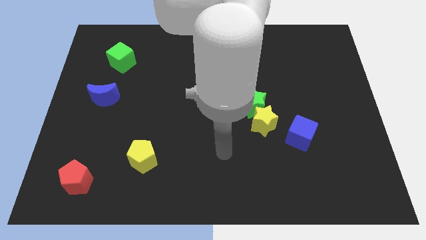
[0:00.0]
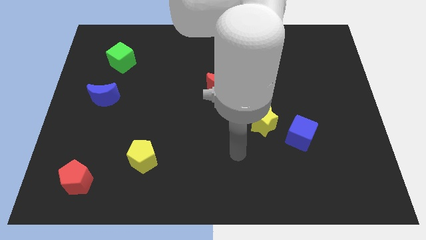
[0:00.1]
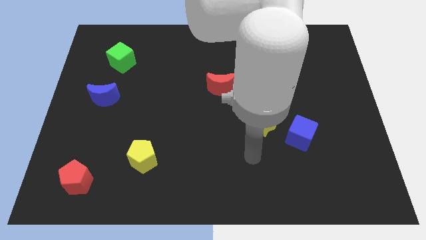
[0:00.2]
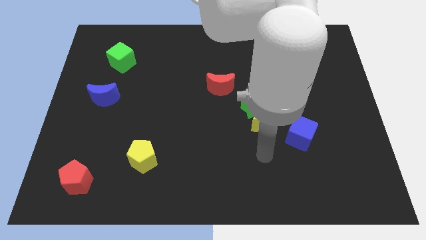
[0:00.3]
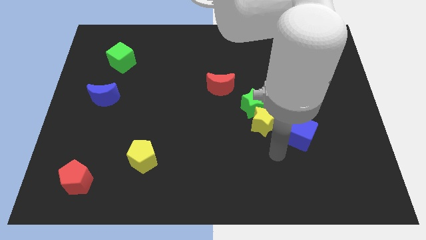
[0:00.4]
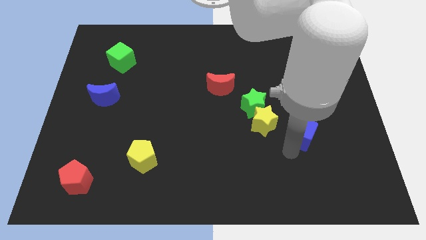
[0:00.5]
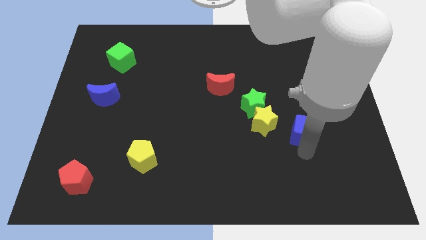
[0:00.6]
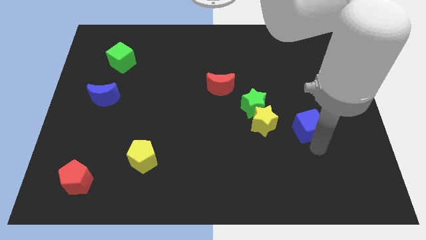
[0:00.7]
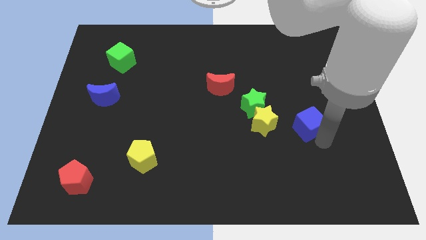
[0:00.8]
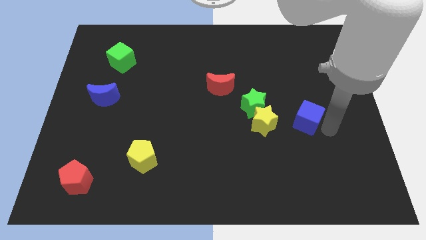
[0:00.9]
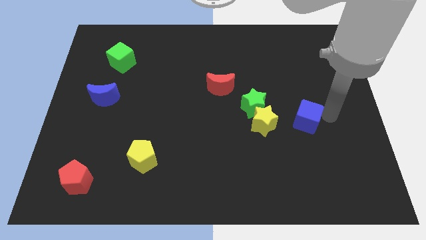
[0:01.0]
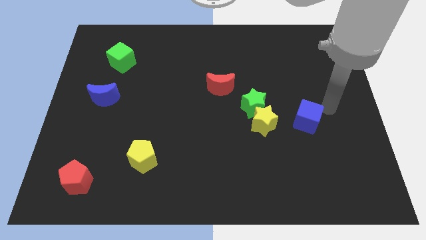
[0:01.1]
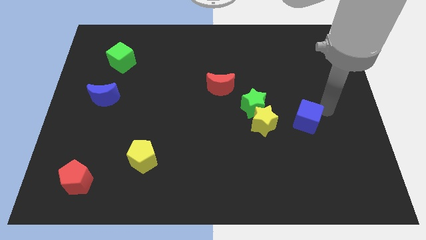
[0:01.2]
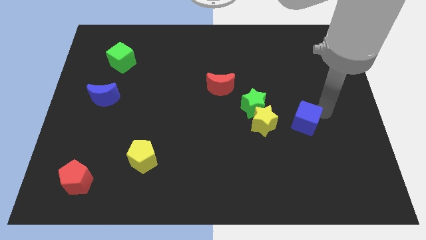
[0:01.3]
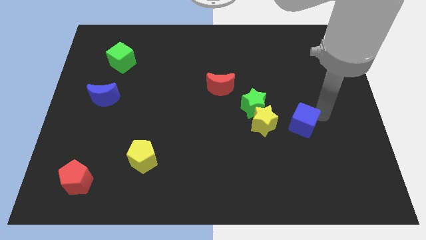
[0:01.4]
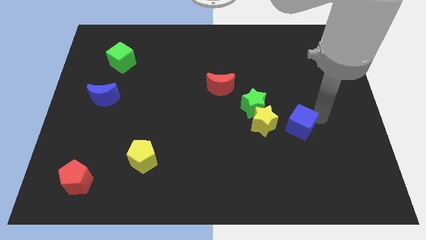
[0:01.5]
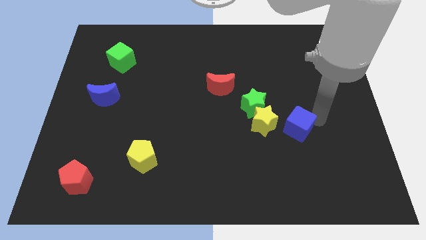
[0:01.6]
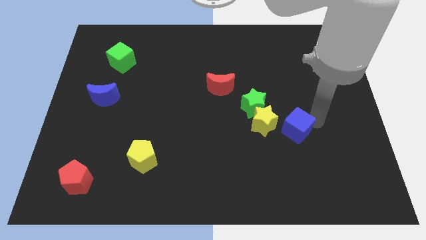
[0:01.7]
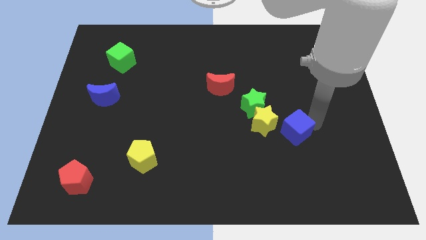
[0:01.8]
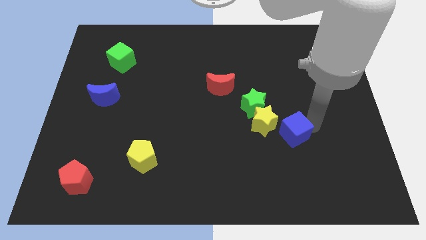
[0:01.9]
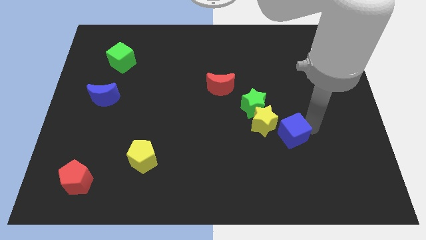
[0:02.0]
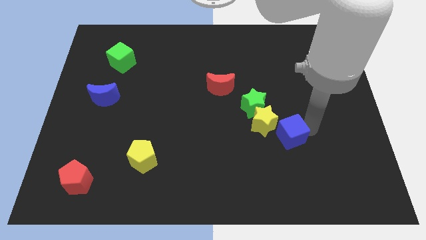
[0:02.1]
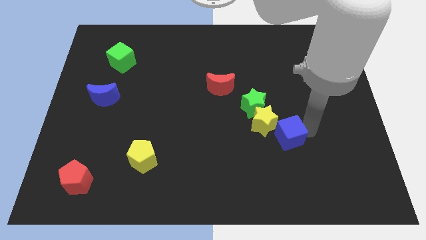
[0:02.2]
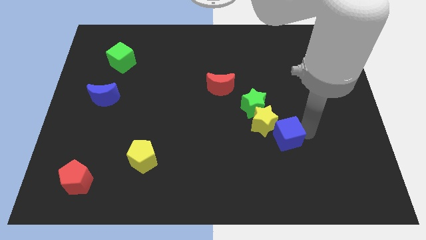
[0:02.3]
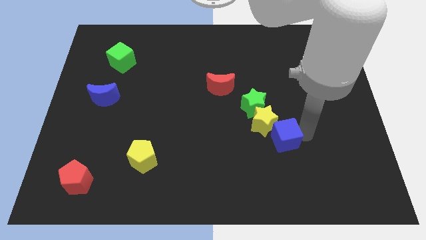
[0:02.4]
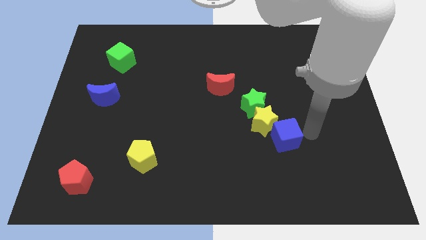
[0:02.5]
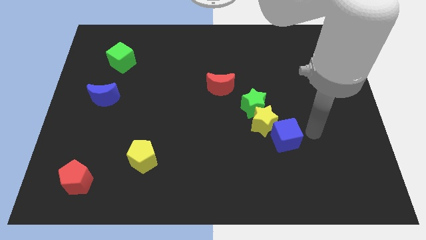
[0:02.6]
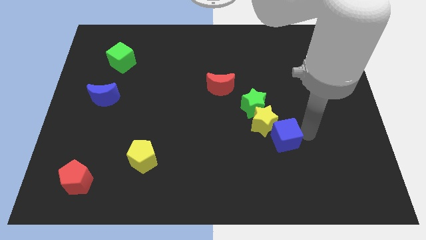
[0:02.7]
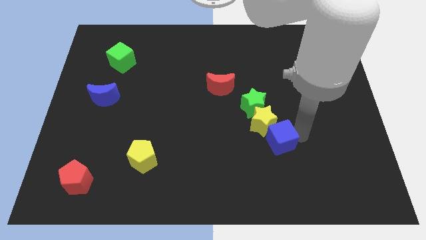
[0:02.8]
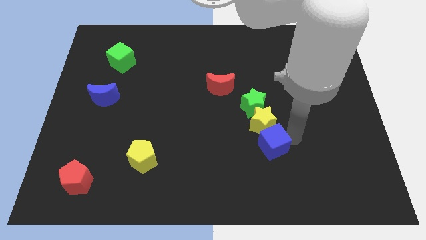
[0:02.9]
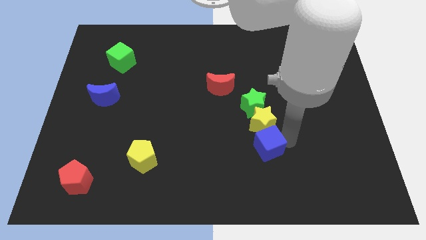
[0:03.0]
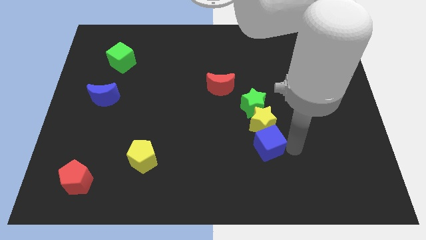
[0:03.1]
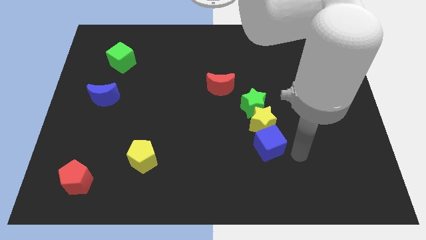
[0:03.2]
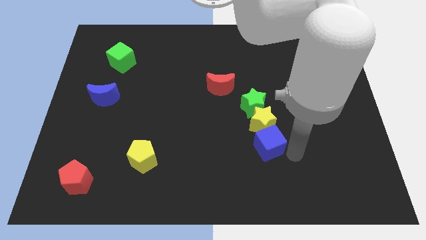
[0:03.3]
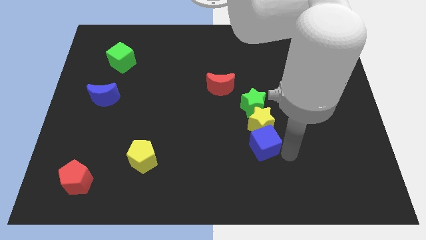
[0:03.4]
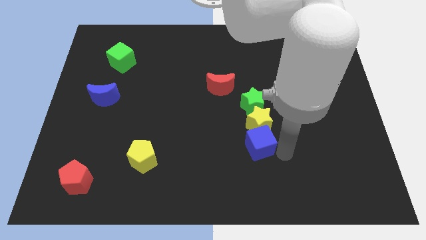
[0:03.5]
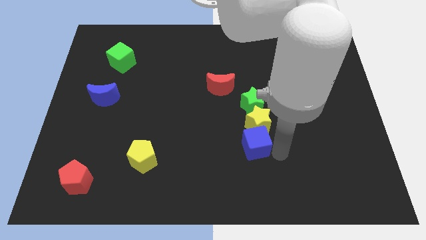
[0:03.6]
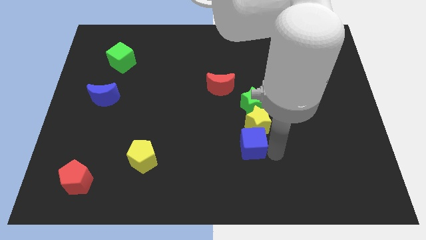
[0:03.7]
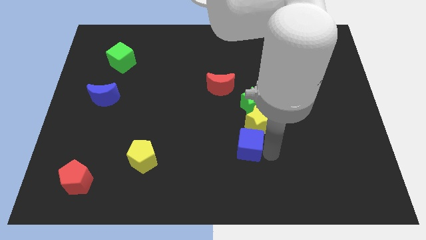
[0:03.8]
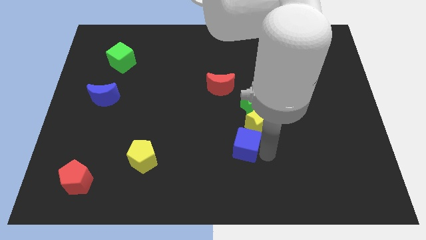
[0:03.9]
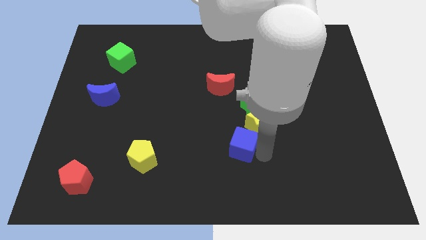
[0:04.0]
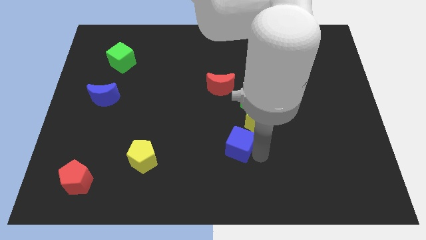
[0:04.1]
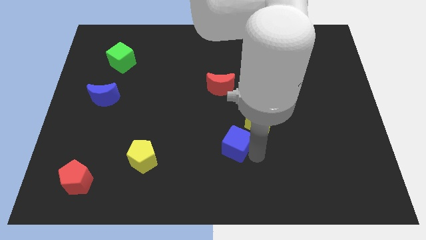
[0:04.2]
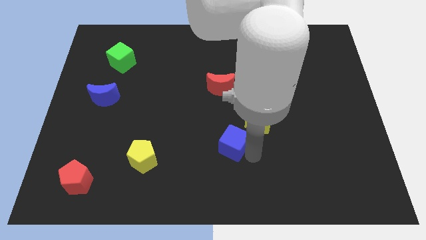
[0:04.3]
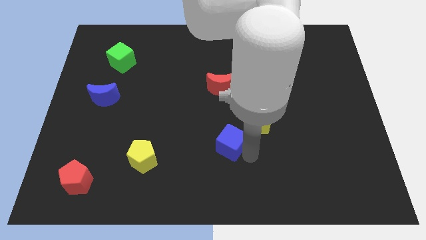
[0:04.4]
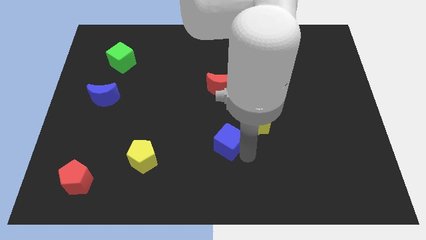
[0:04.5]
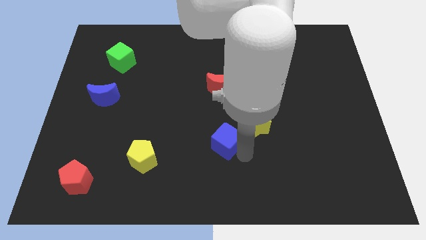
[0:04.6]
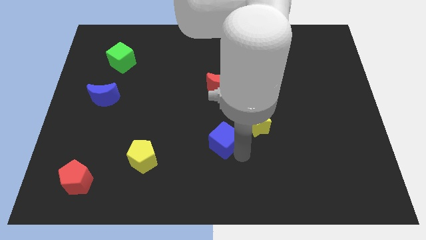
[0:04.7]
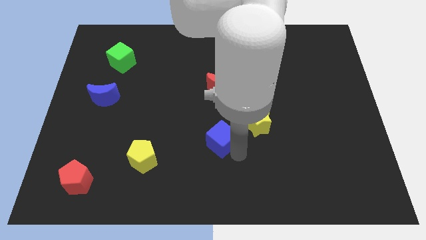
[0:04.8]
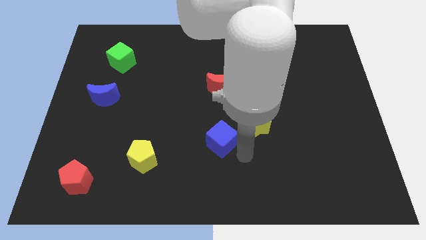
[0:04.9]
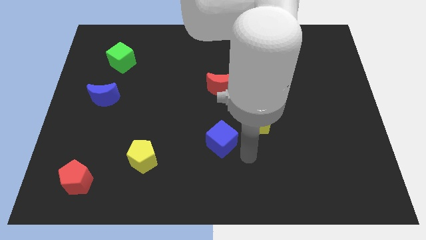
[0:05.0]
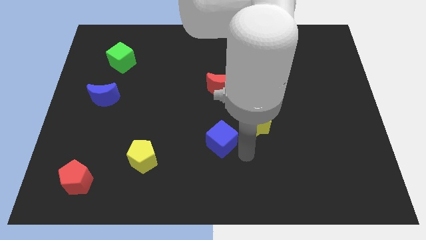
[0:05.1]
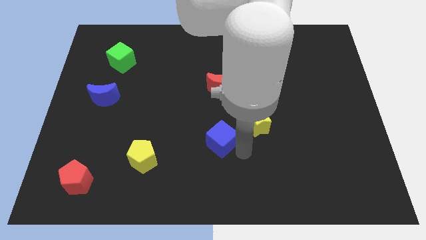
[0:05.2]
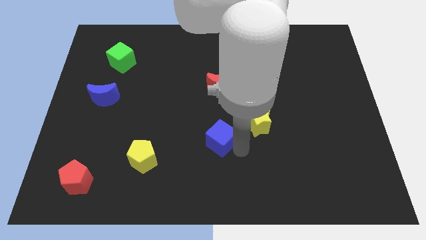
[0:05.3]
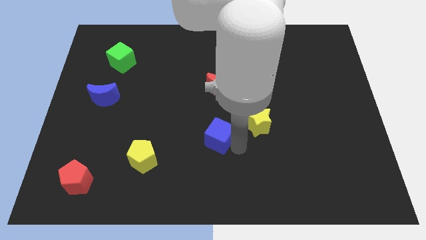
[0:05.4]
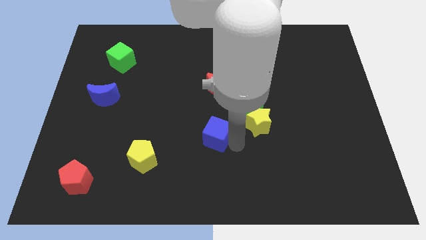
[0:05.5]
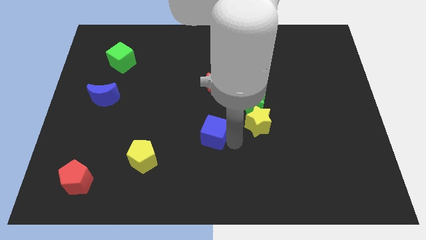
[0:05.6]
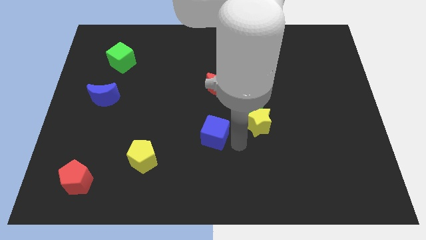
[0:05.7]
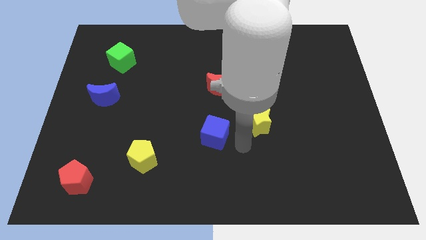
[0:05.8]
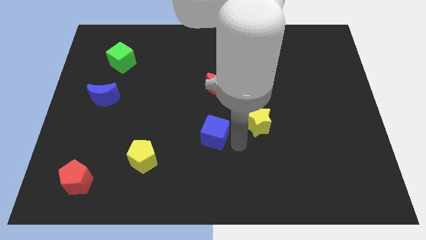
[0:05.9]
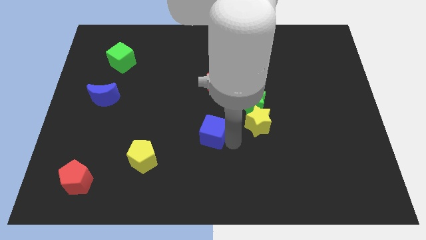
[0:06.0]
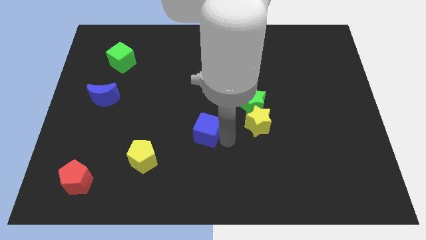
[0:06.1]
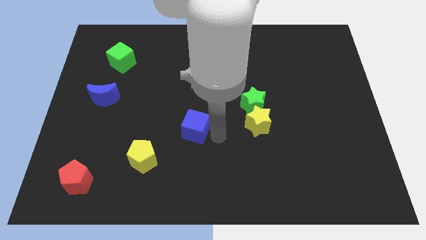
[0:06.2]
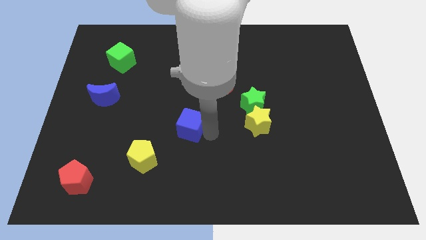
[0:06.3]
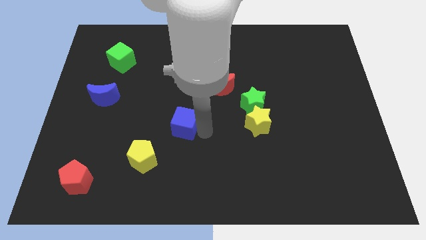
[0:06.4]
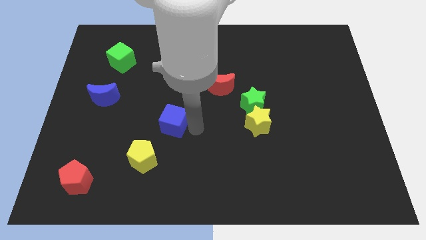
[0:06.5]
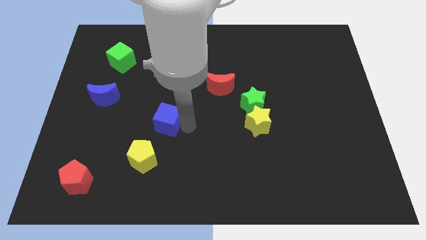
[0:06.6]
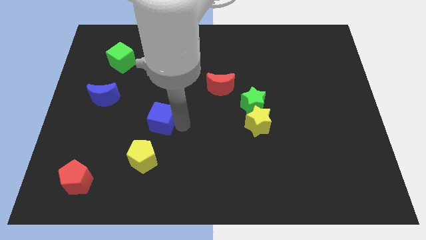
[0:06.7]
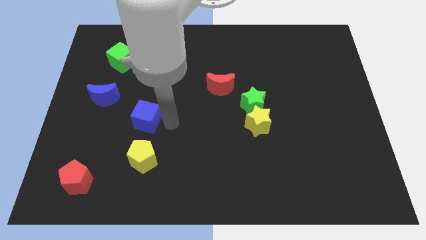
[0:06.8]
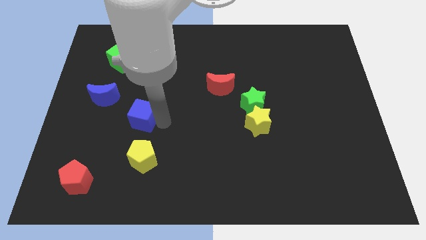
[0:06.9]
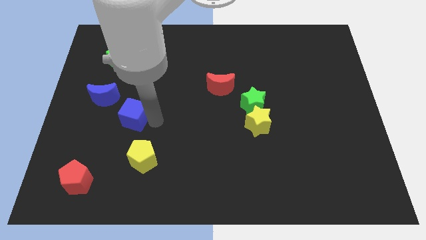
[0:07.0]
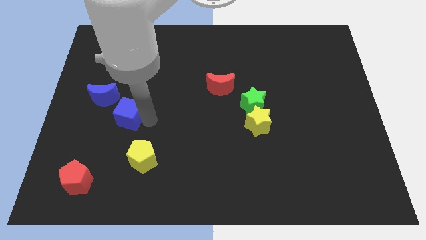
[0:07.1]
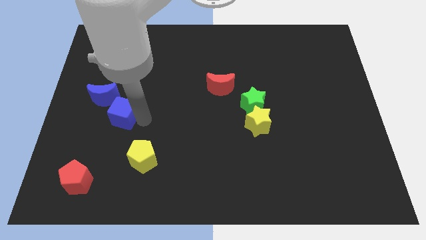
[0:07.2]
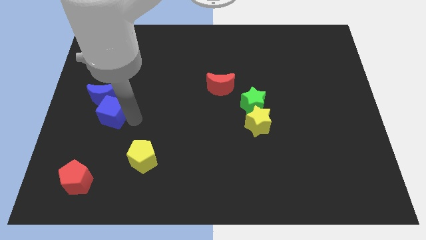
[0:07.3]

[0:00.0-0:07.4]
put the blue cube to the blue moon
